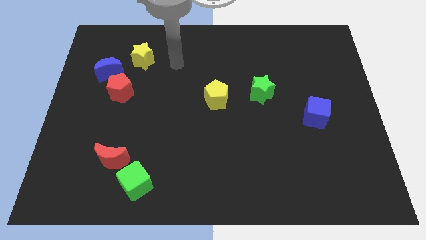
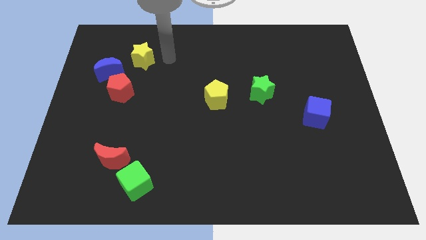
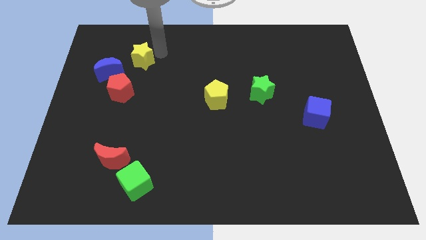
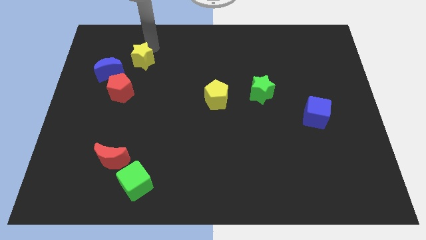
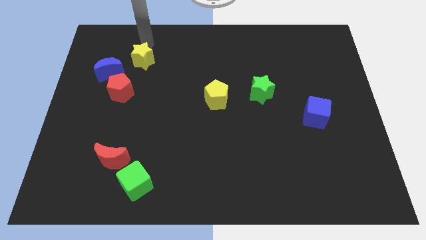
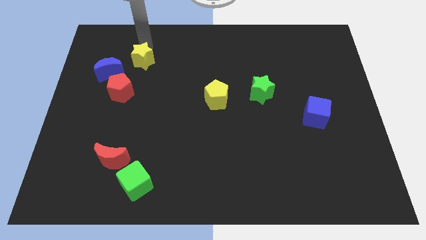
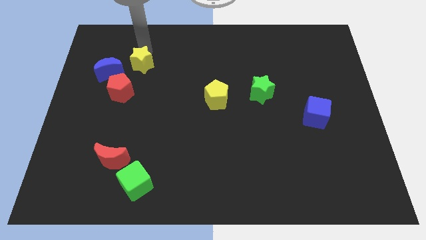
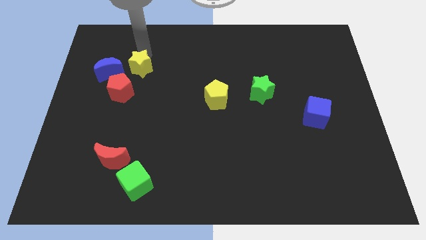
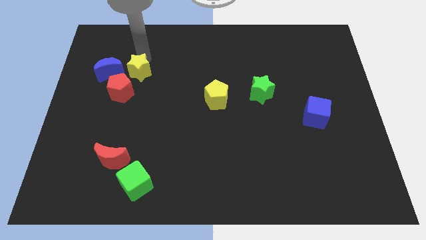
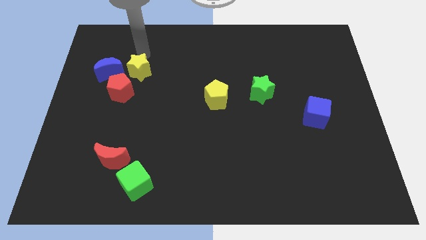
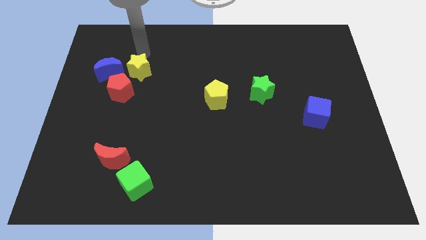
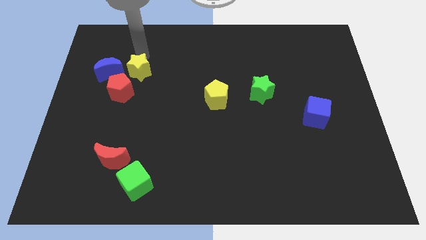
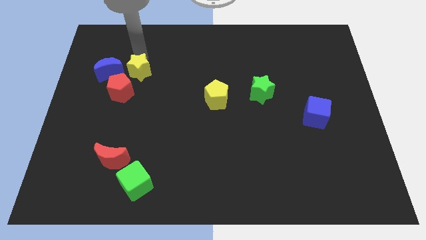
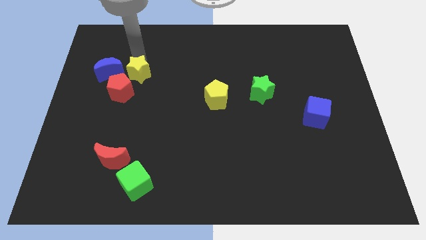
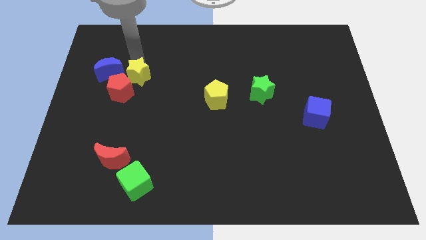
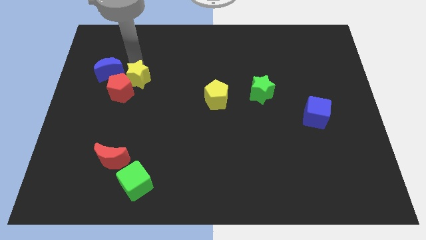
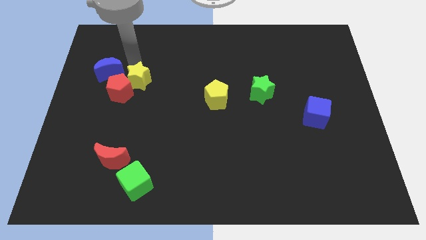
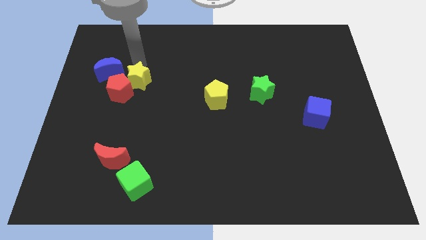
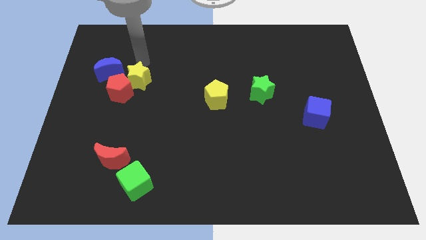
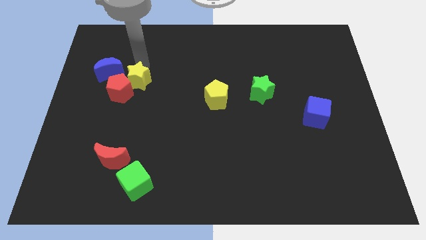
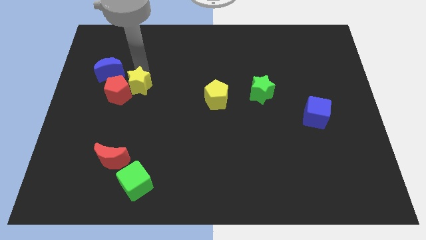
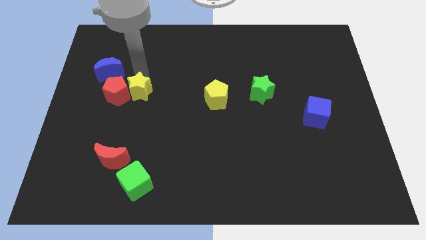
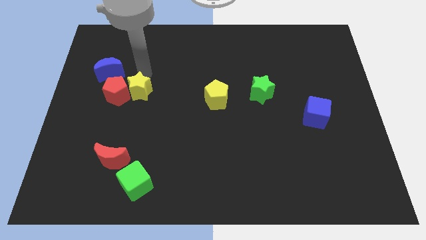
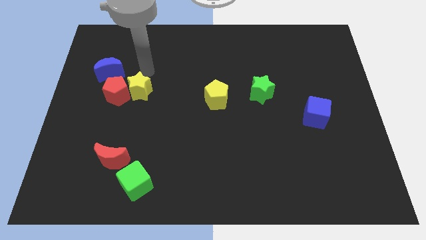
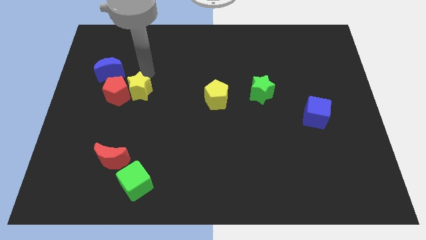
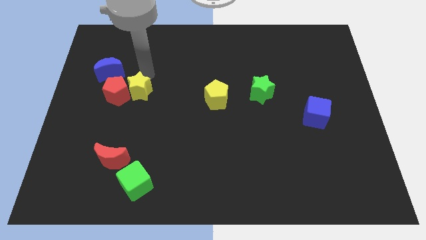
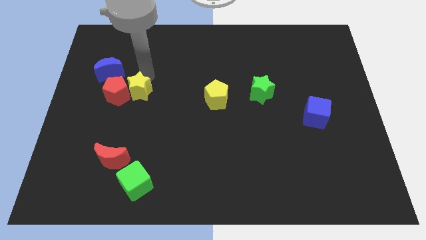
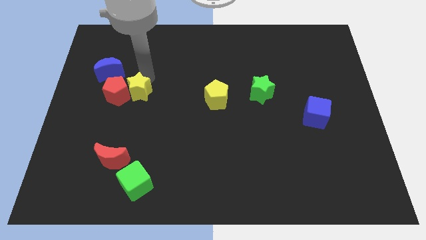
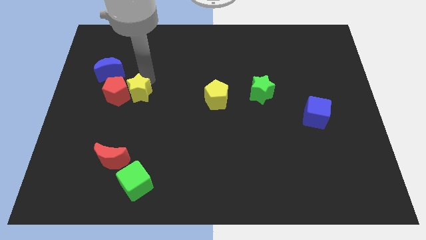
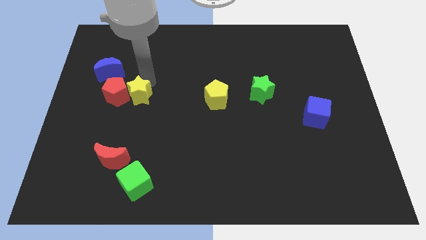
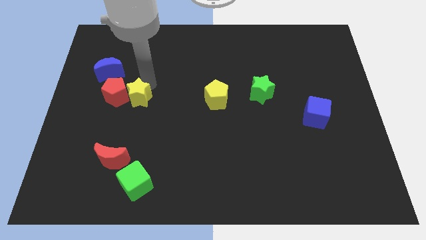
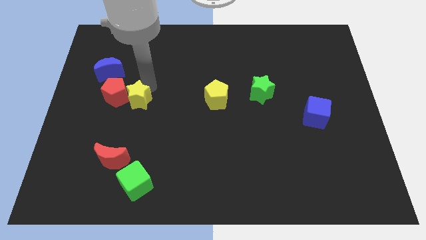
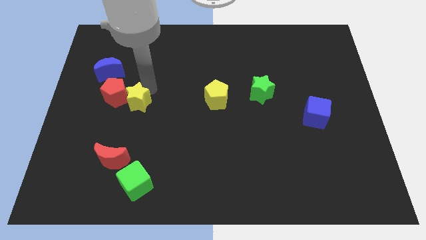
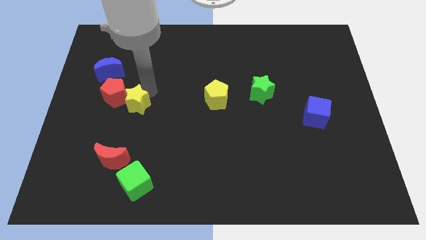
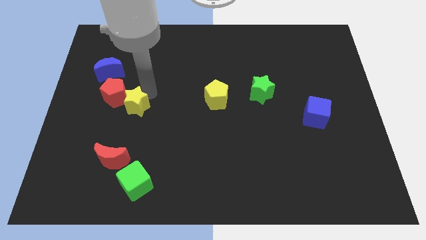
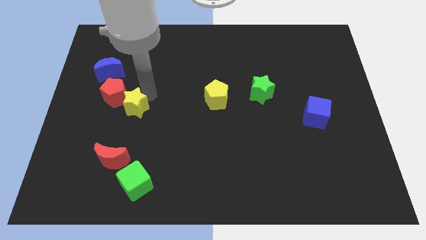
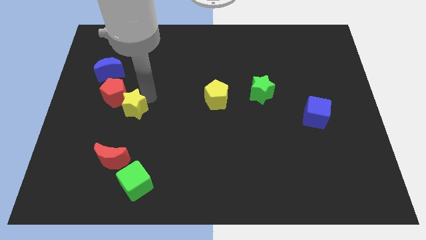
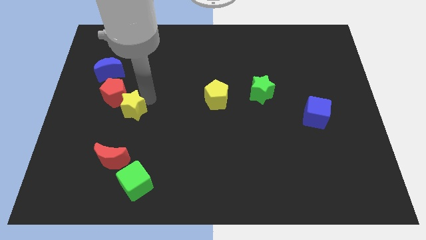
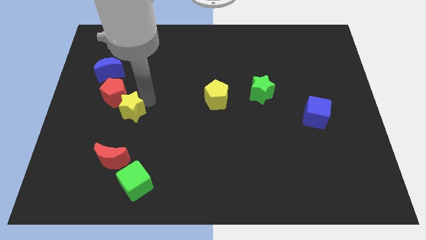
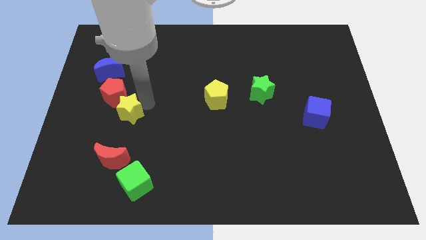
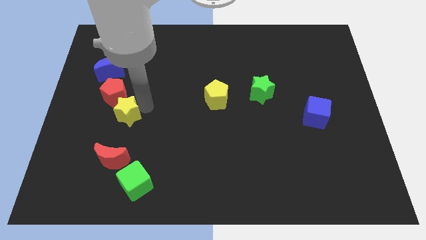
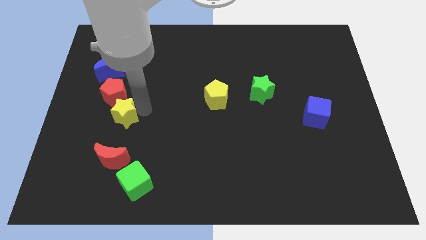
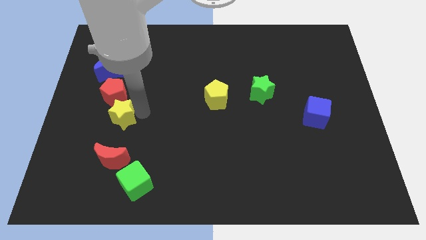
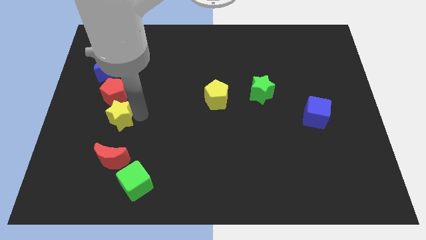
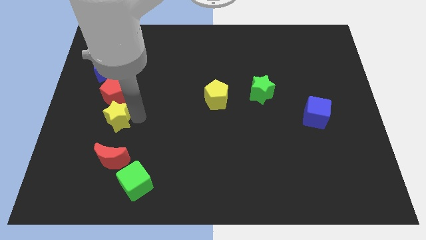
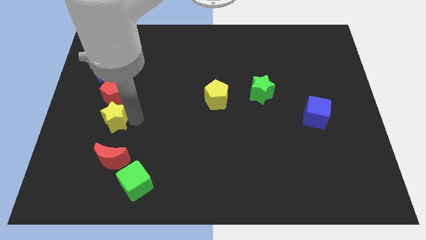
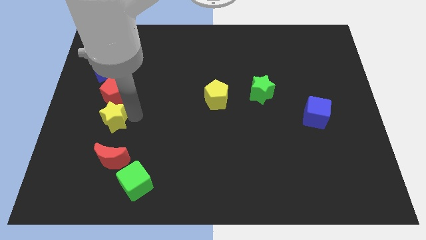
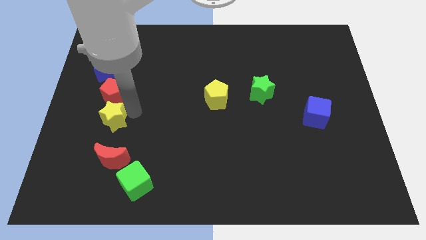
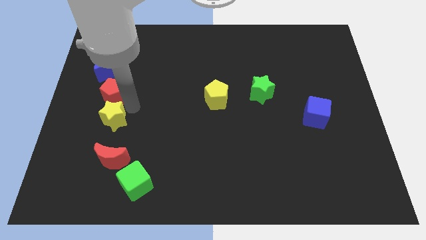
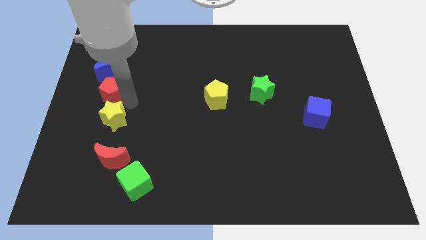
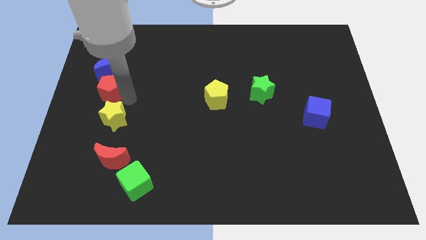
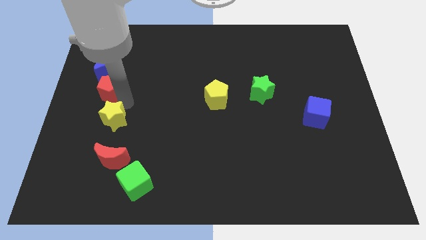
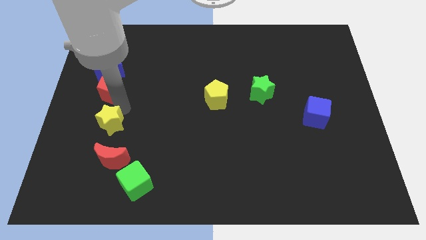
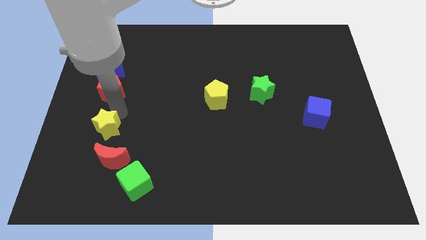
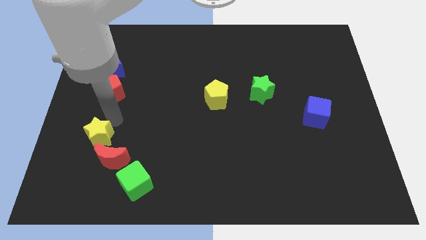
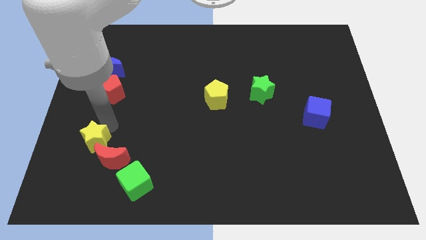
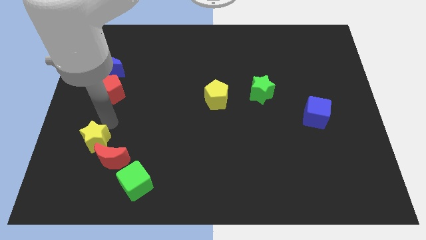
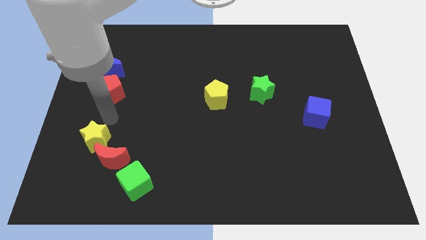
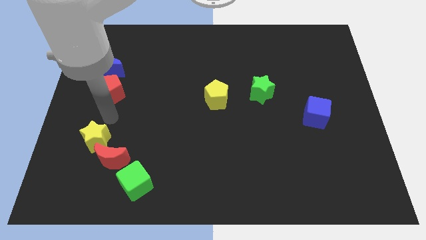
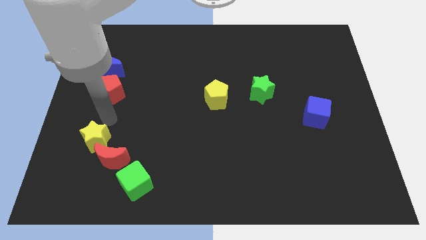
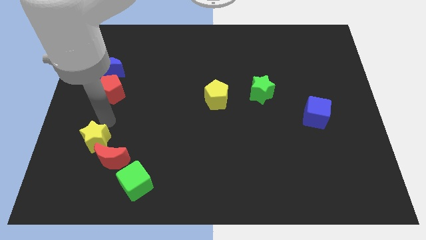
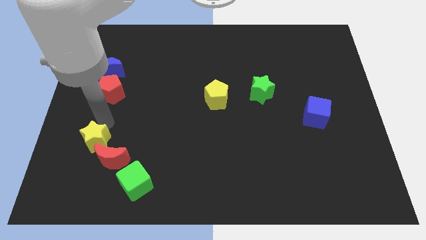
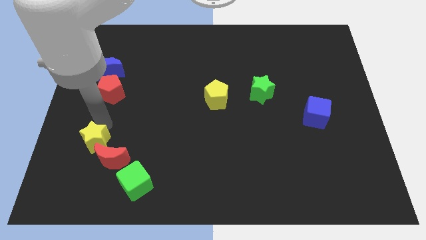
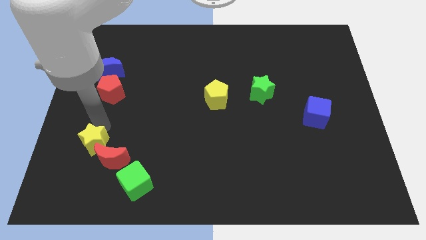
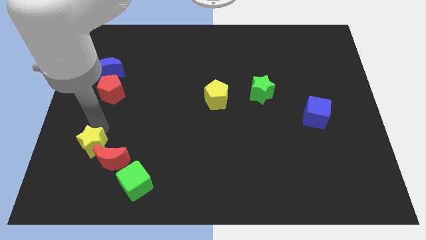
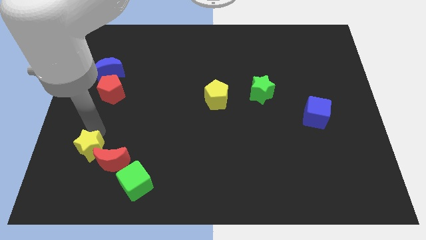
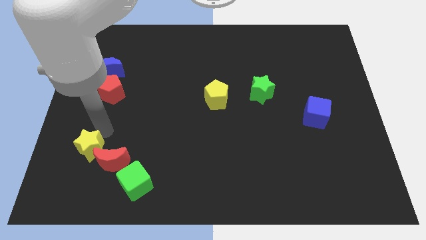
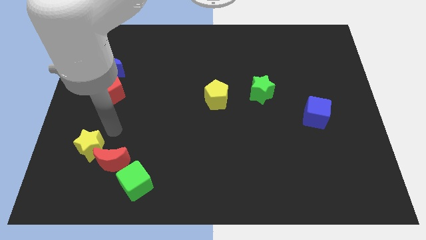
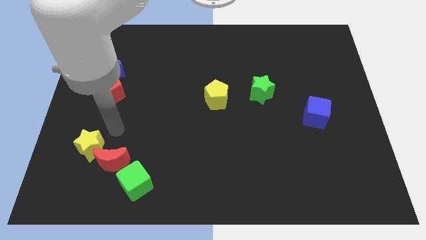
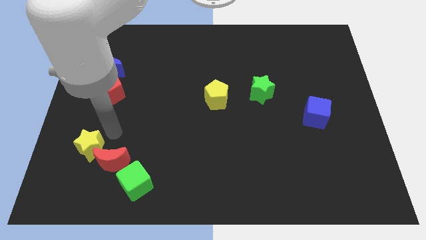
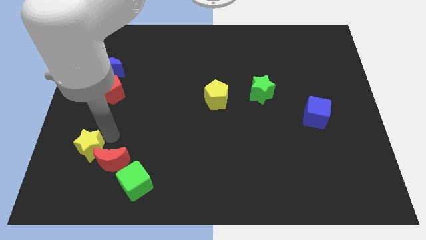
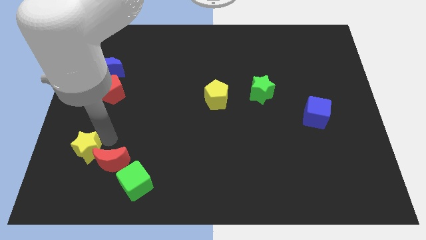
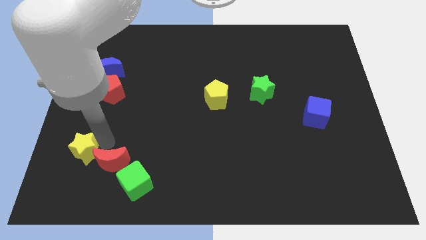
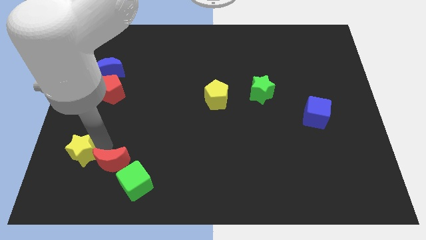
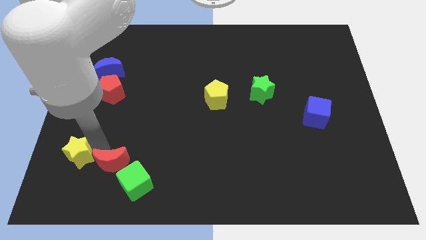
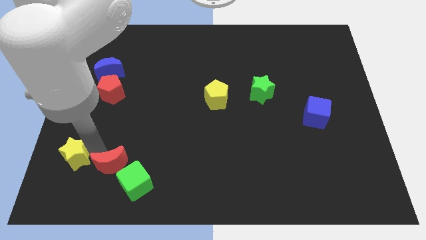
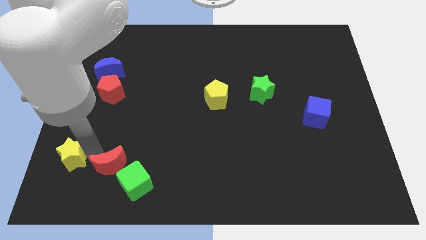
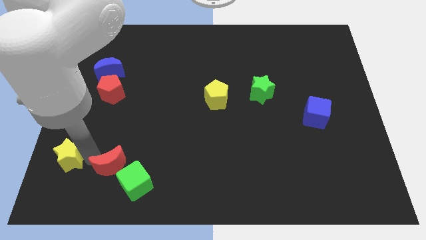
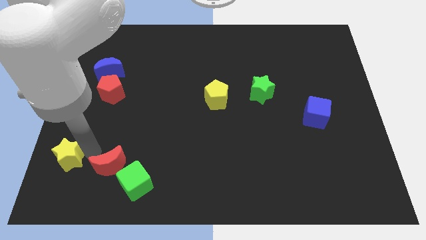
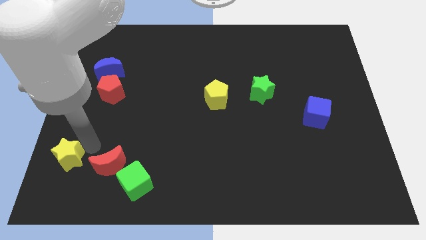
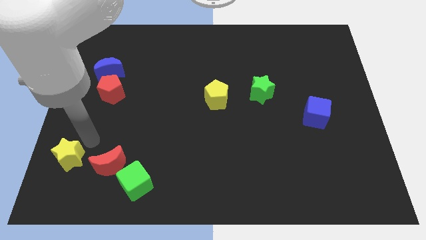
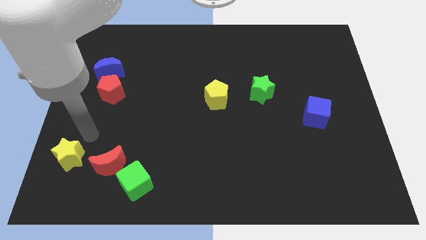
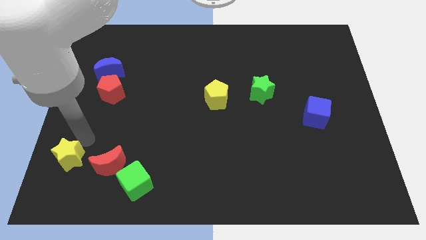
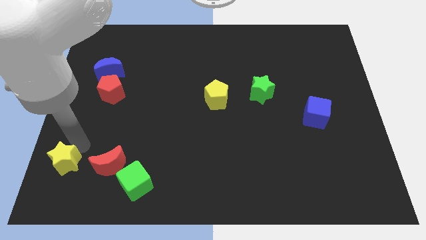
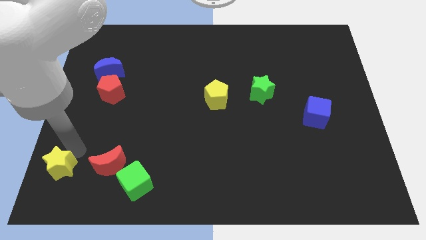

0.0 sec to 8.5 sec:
push the yellow star to the bottom left corner
